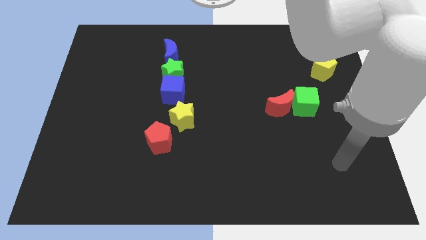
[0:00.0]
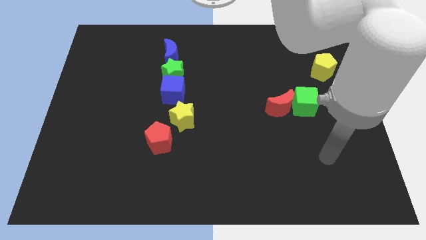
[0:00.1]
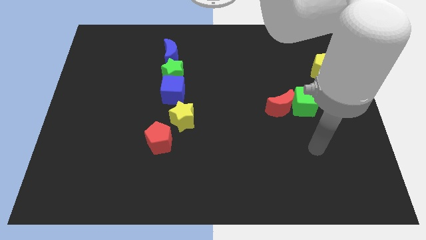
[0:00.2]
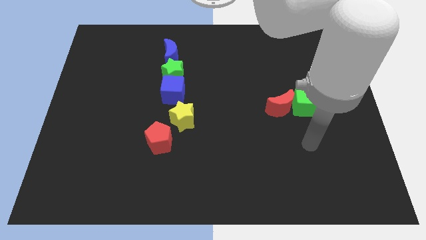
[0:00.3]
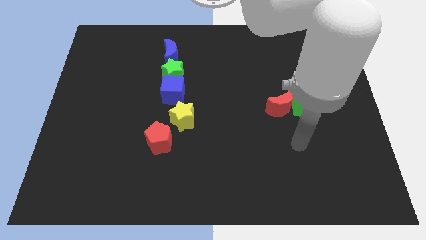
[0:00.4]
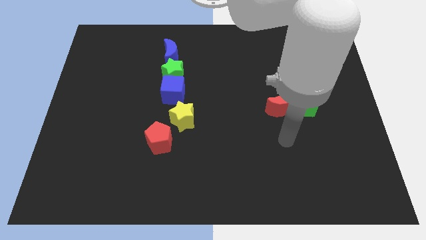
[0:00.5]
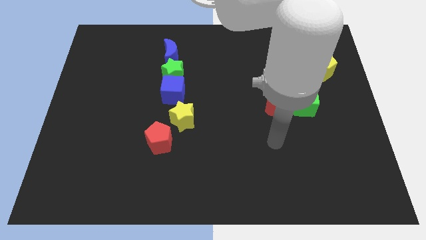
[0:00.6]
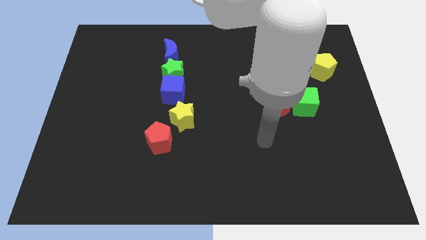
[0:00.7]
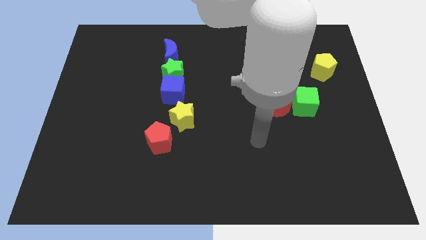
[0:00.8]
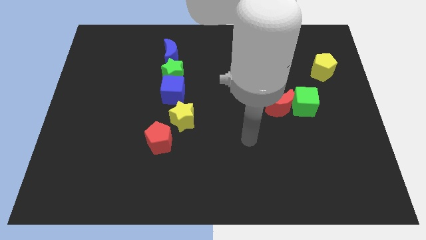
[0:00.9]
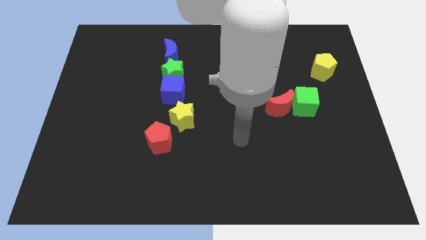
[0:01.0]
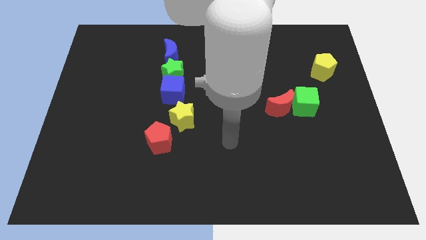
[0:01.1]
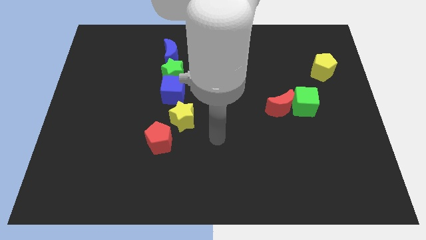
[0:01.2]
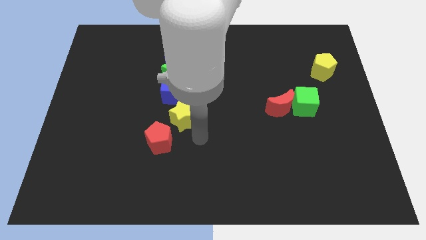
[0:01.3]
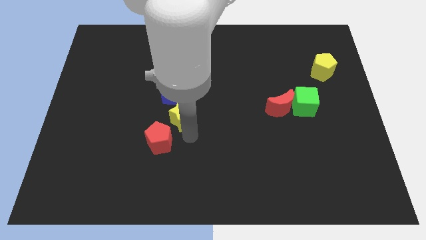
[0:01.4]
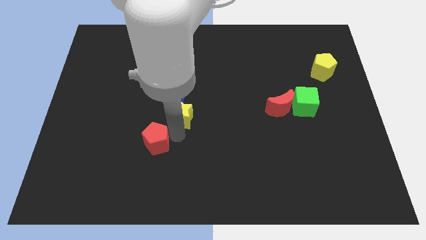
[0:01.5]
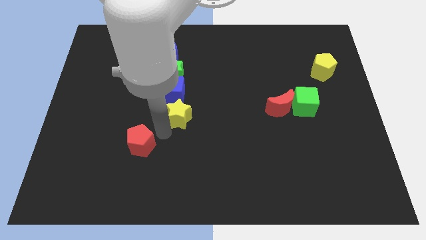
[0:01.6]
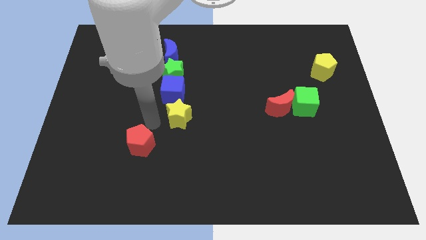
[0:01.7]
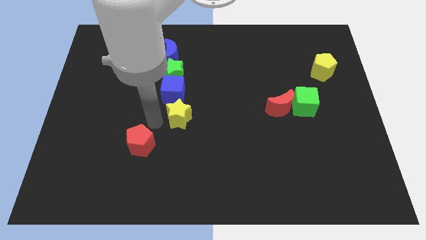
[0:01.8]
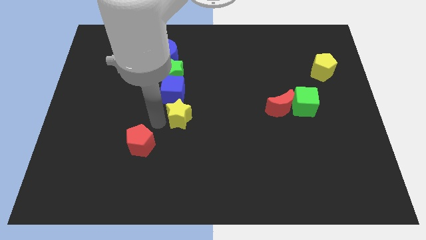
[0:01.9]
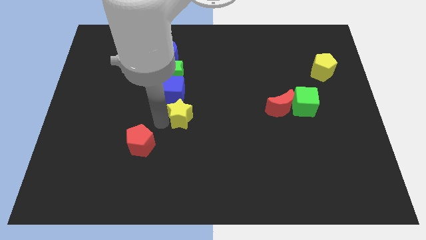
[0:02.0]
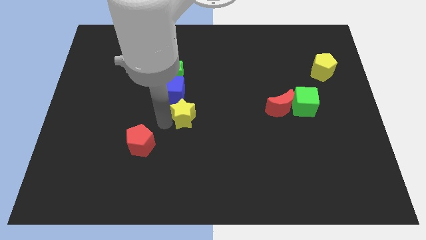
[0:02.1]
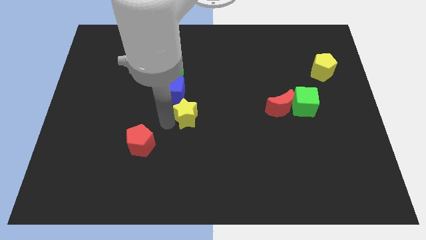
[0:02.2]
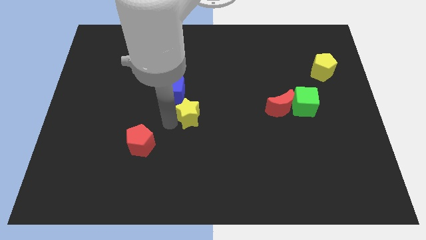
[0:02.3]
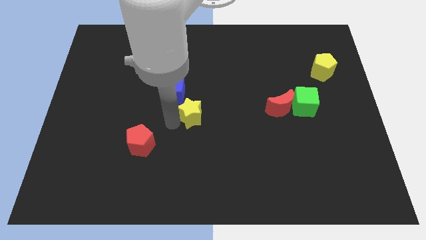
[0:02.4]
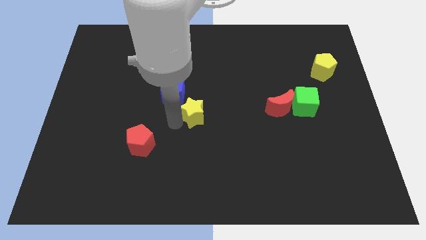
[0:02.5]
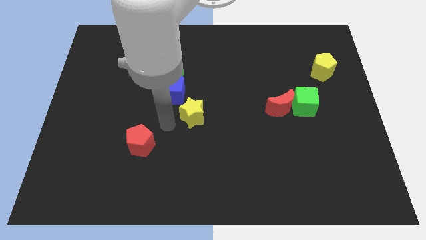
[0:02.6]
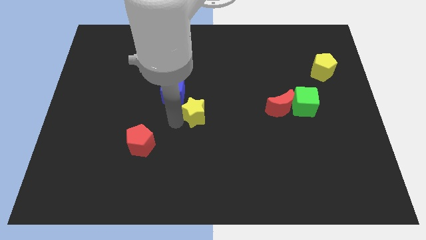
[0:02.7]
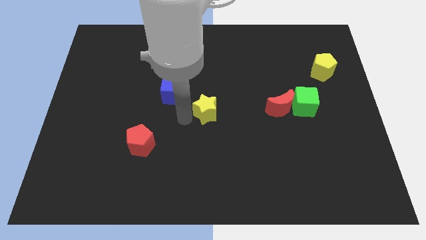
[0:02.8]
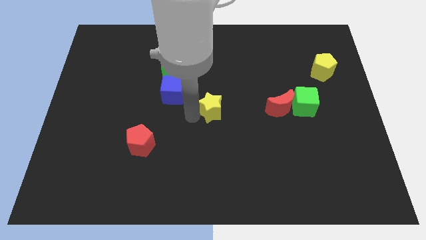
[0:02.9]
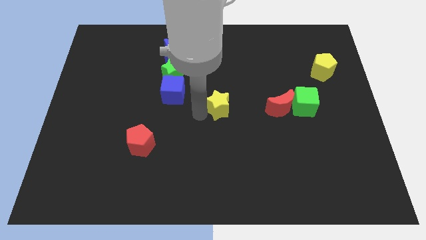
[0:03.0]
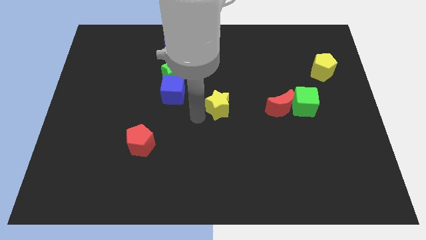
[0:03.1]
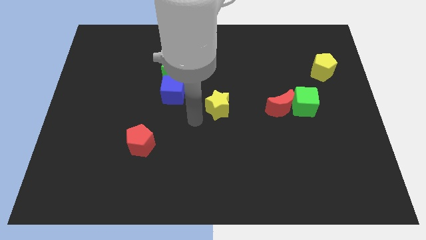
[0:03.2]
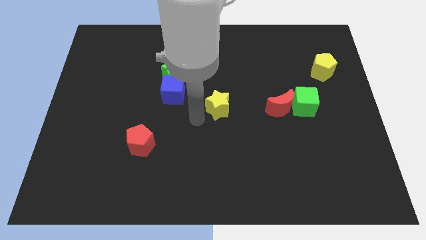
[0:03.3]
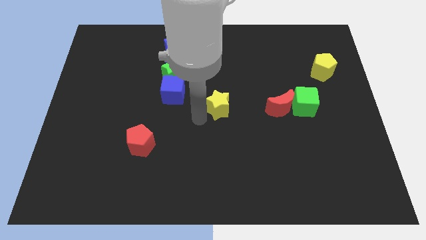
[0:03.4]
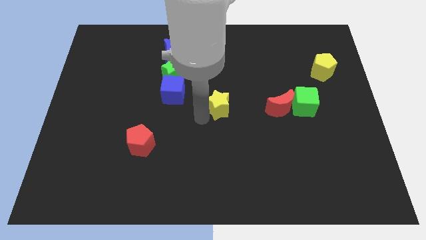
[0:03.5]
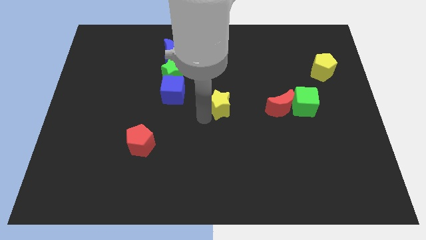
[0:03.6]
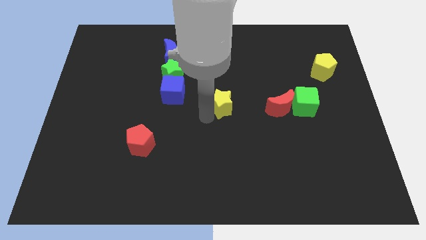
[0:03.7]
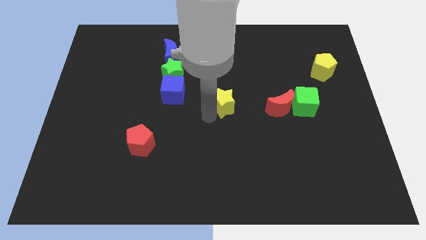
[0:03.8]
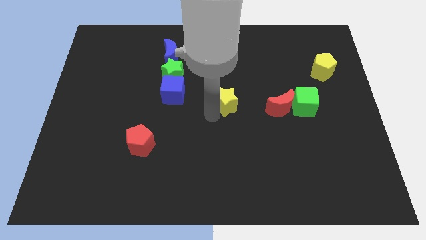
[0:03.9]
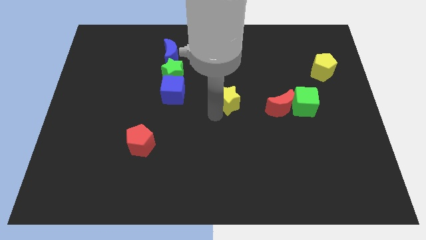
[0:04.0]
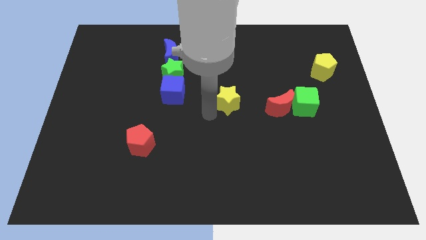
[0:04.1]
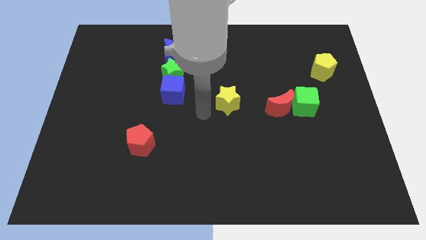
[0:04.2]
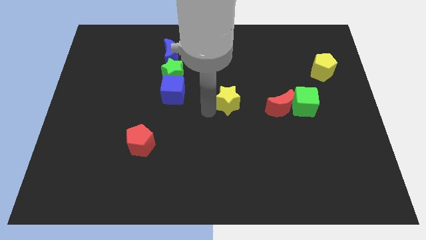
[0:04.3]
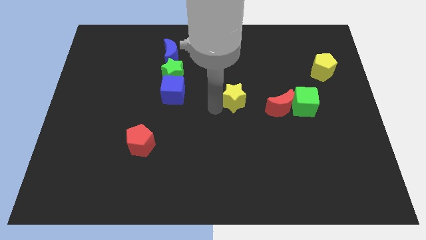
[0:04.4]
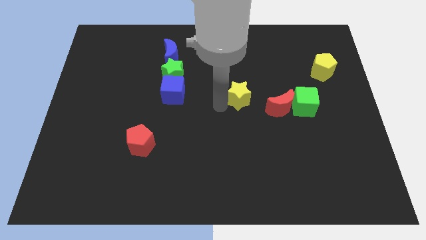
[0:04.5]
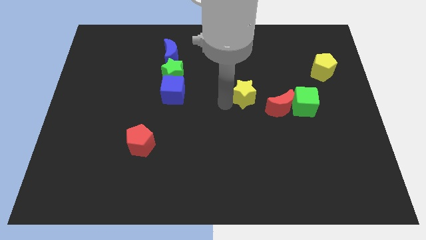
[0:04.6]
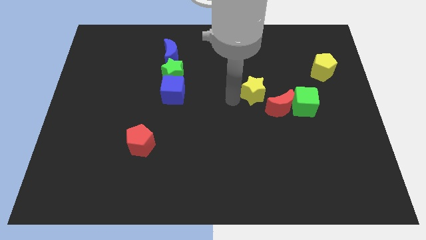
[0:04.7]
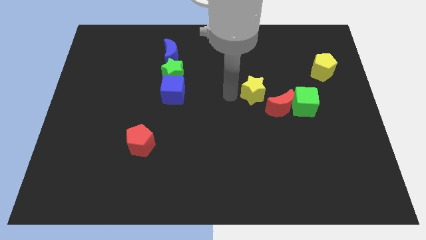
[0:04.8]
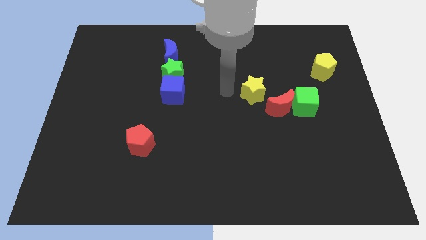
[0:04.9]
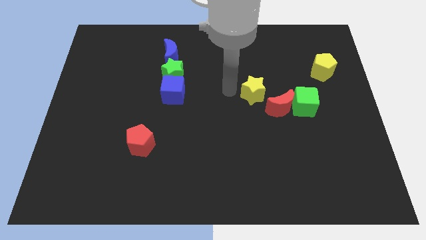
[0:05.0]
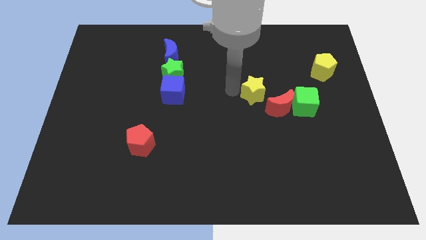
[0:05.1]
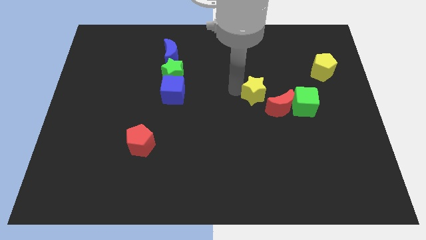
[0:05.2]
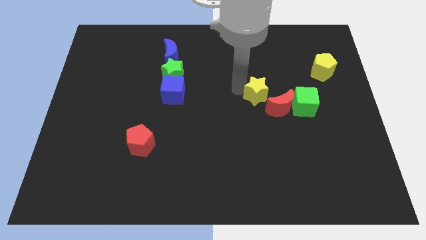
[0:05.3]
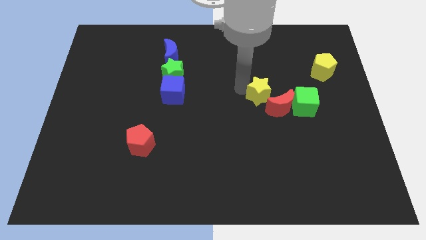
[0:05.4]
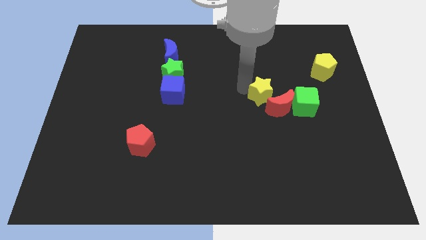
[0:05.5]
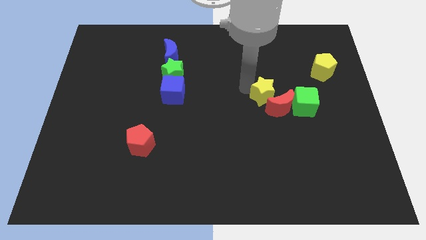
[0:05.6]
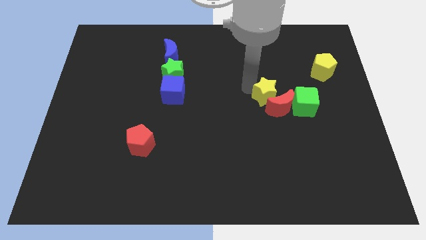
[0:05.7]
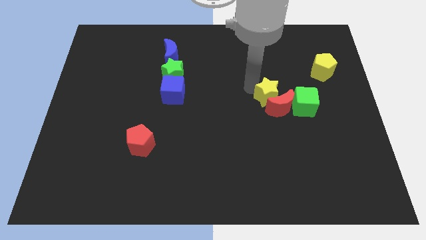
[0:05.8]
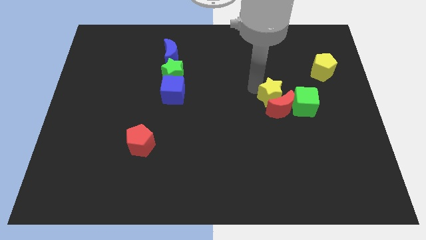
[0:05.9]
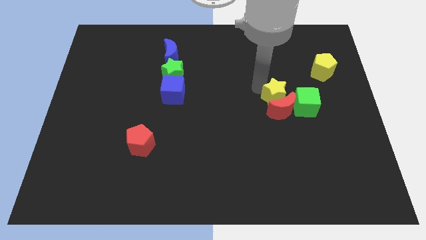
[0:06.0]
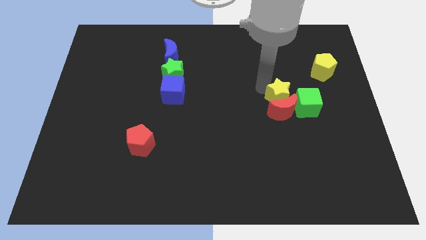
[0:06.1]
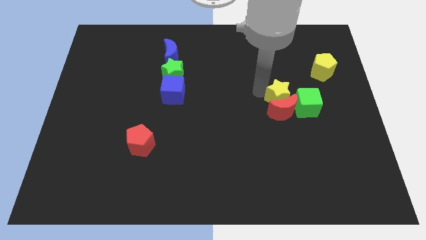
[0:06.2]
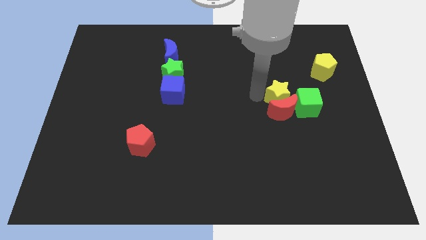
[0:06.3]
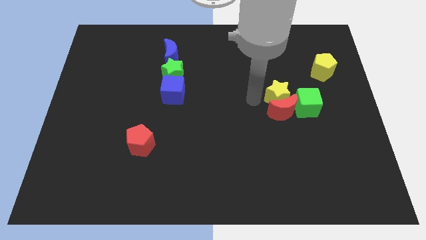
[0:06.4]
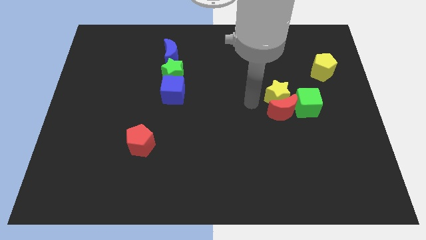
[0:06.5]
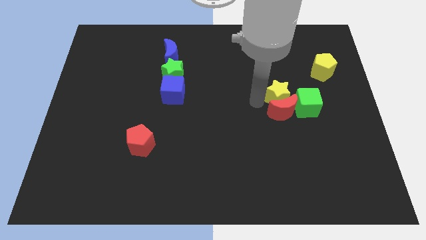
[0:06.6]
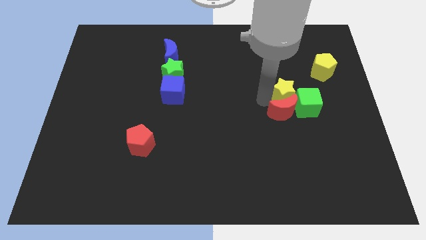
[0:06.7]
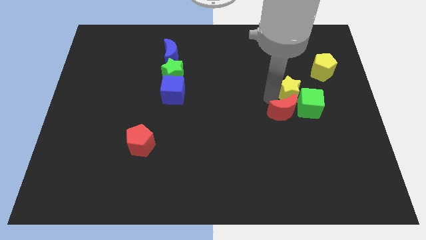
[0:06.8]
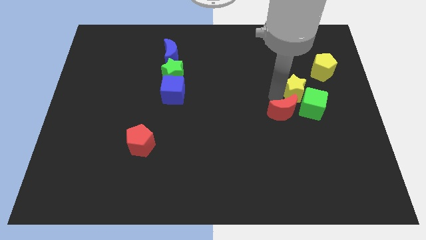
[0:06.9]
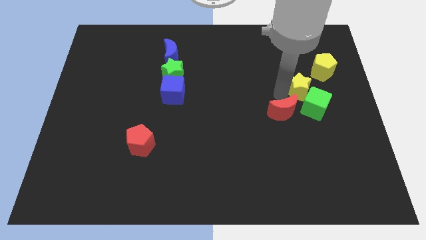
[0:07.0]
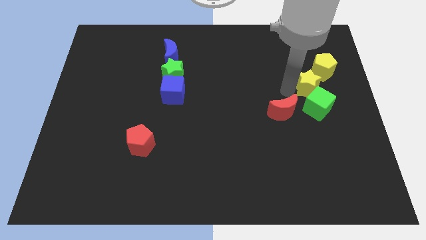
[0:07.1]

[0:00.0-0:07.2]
move the yellow star to the bottom of the yellow pentagon

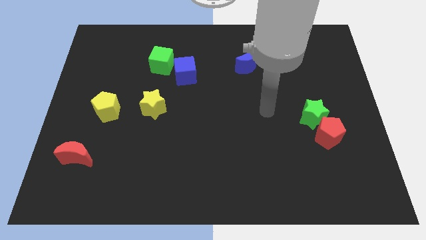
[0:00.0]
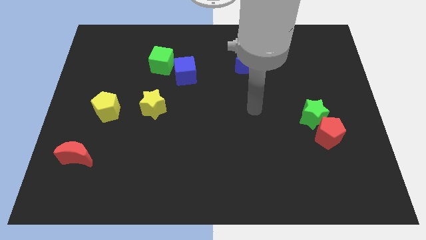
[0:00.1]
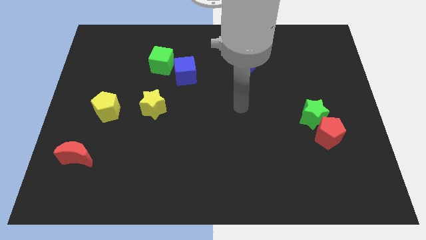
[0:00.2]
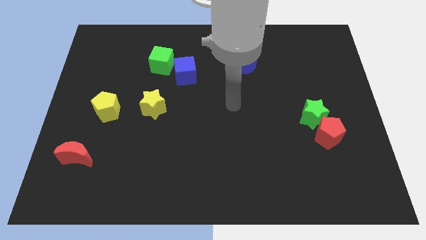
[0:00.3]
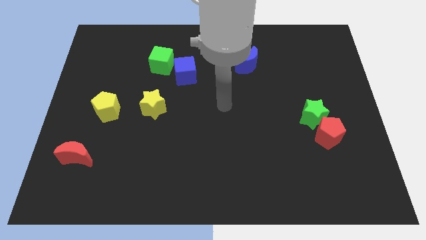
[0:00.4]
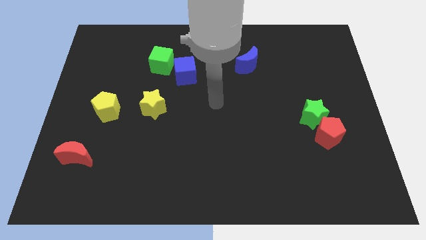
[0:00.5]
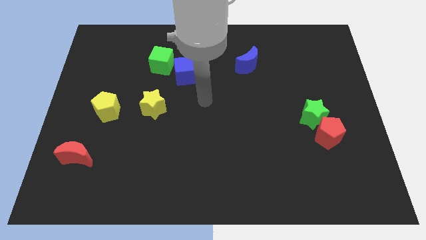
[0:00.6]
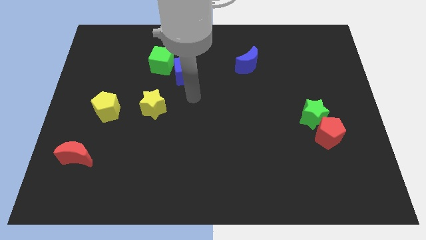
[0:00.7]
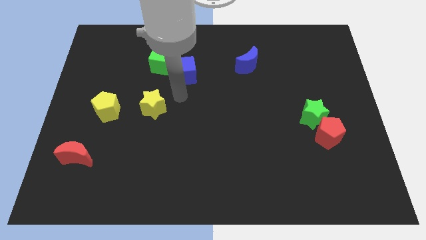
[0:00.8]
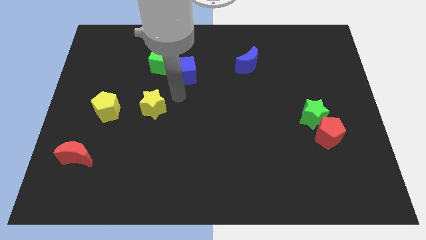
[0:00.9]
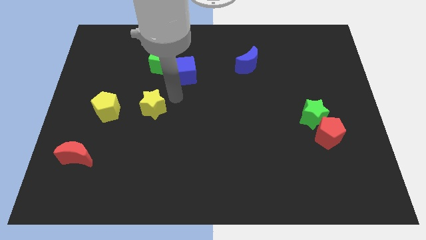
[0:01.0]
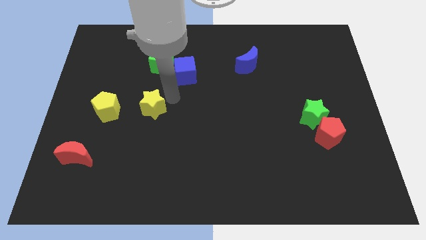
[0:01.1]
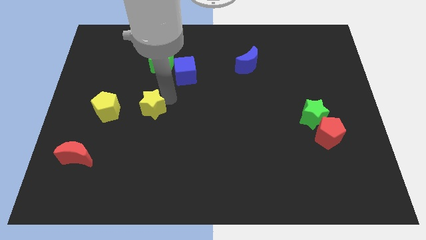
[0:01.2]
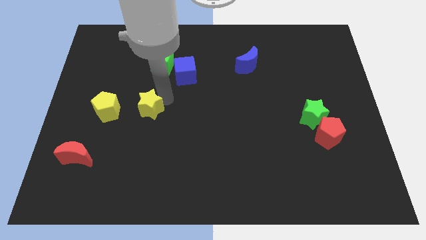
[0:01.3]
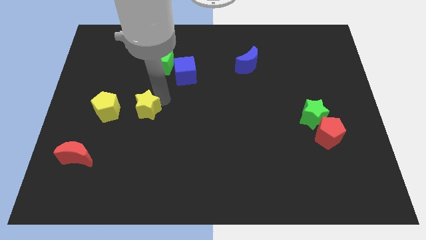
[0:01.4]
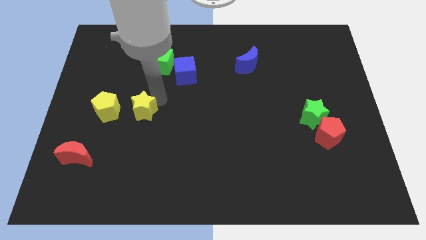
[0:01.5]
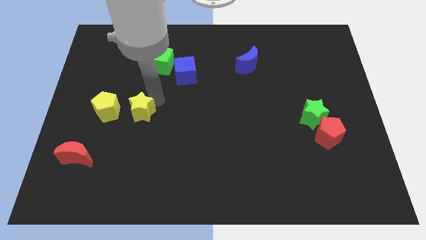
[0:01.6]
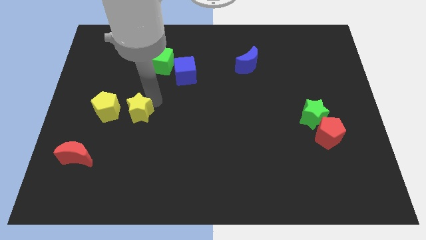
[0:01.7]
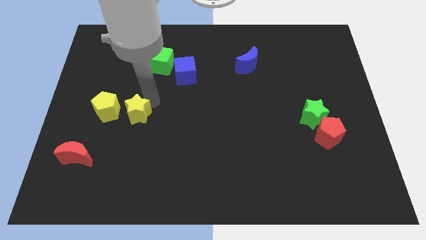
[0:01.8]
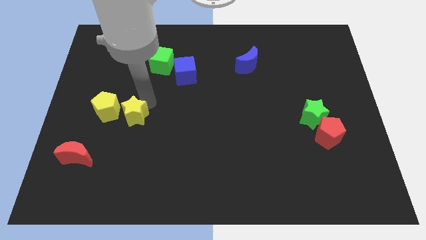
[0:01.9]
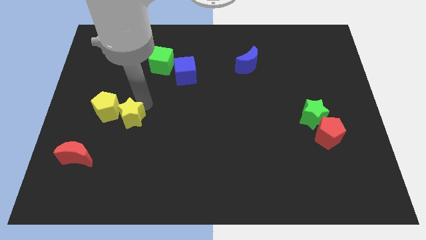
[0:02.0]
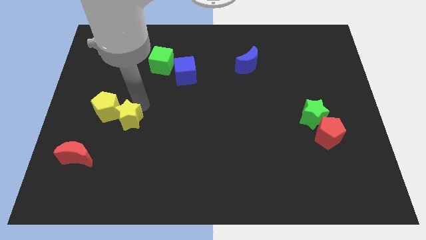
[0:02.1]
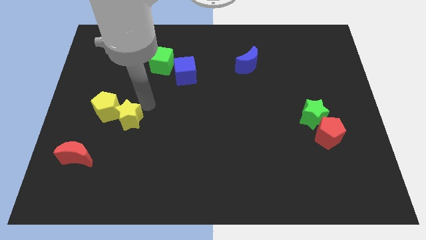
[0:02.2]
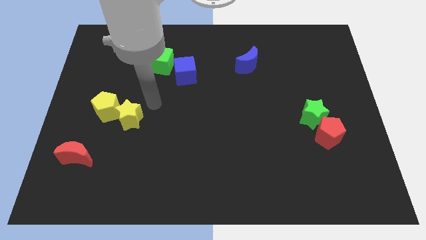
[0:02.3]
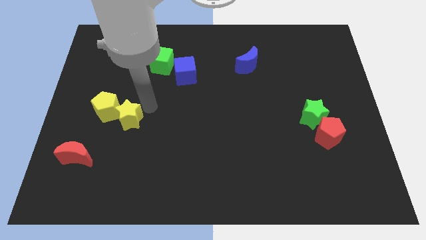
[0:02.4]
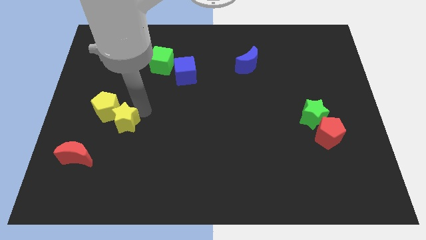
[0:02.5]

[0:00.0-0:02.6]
slide the yellow star to the top right of the red moon
